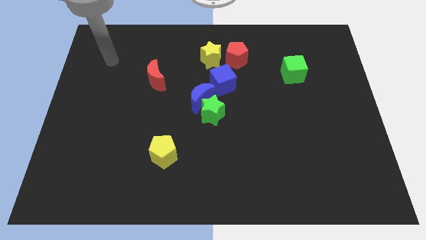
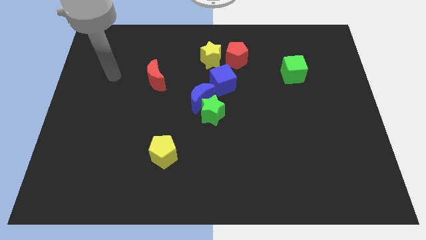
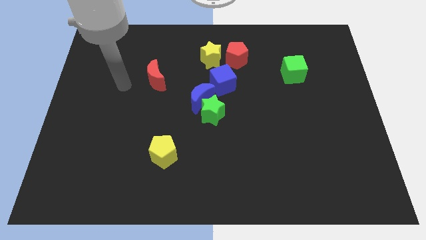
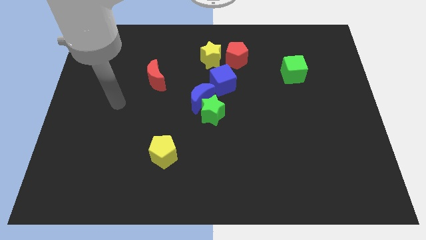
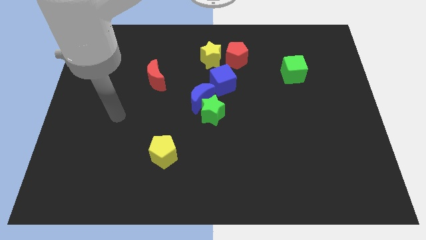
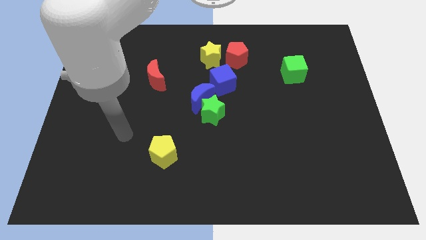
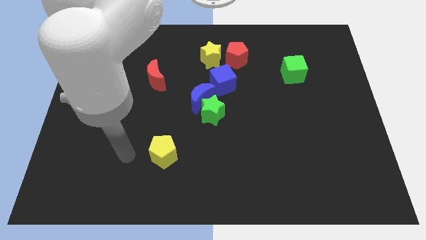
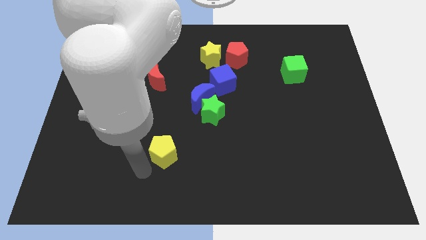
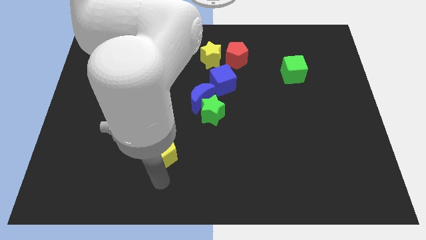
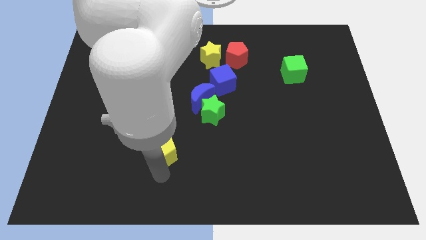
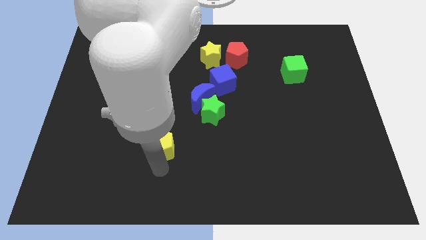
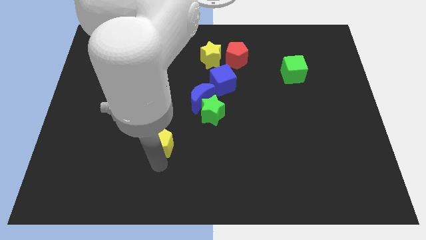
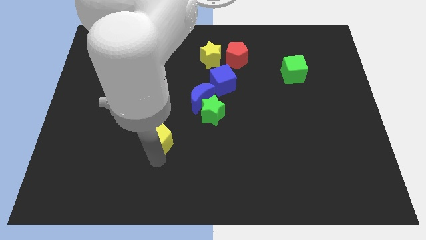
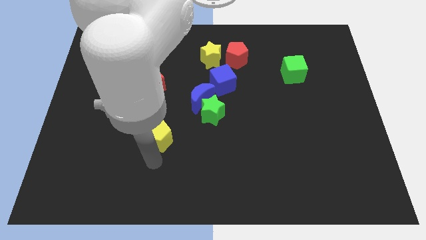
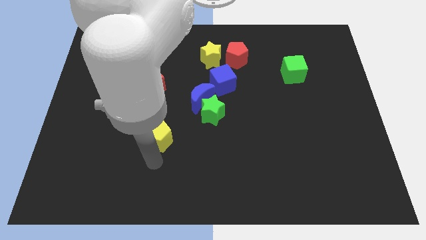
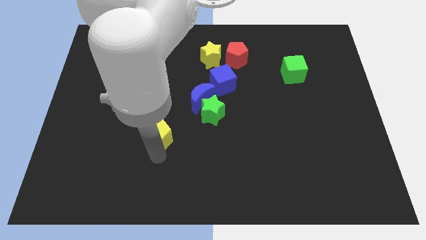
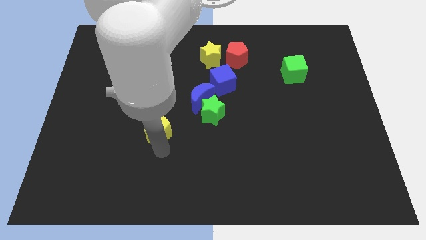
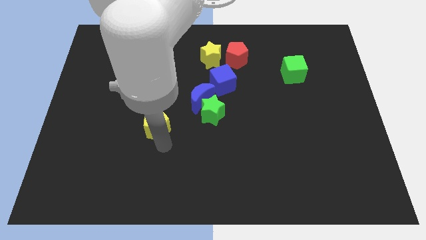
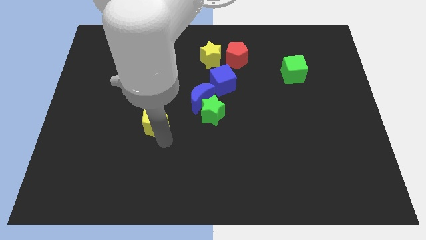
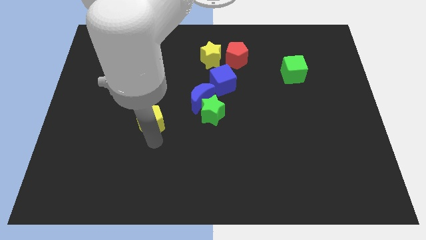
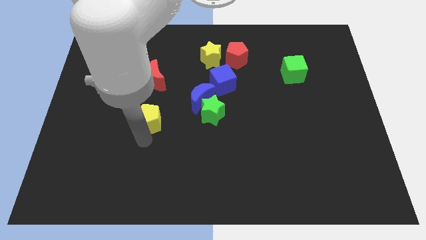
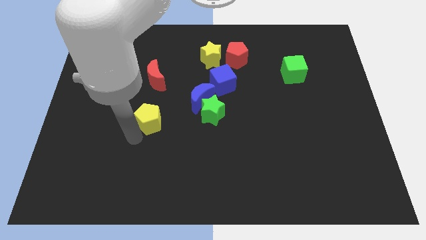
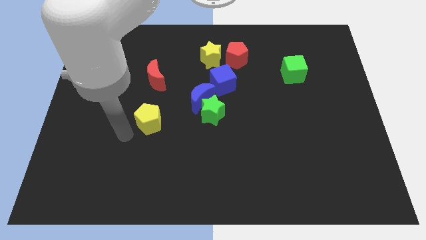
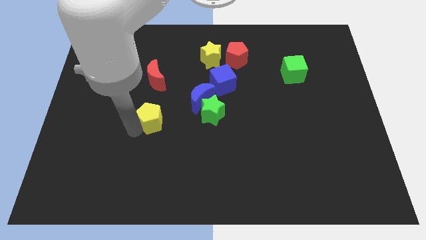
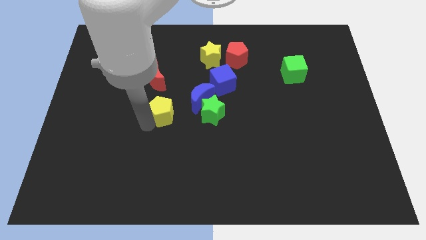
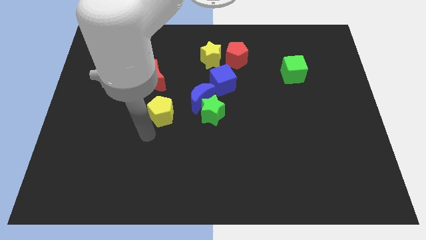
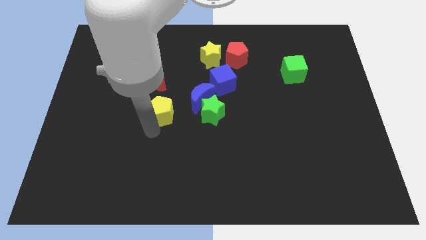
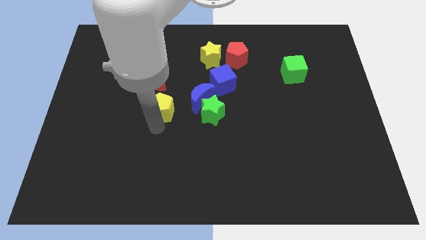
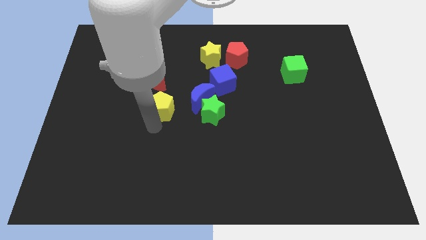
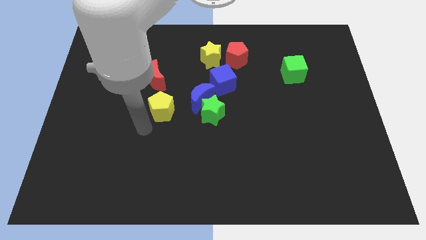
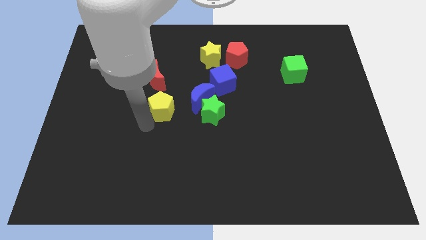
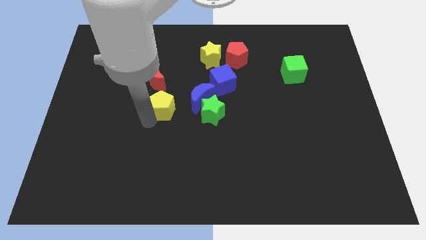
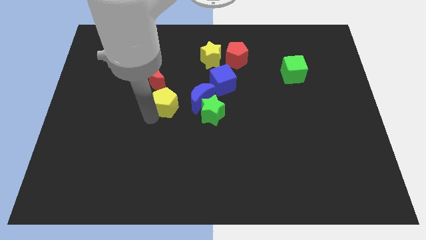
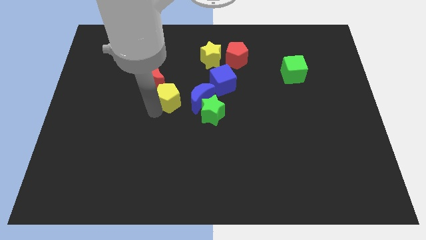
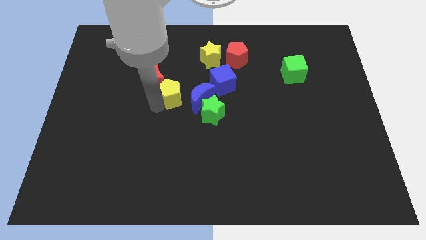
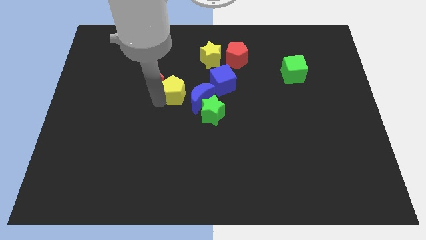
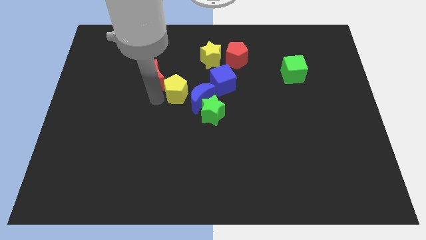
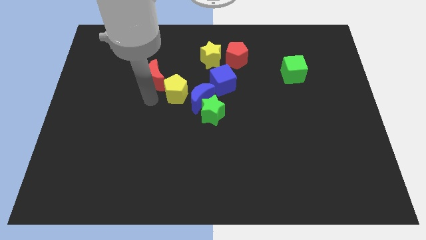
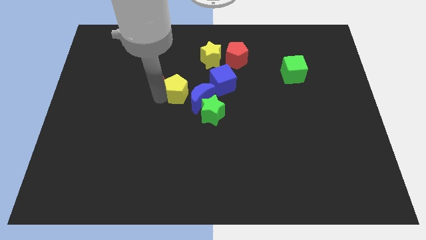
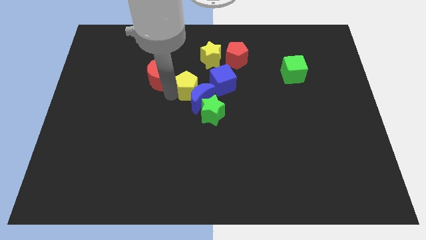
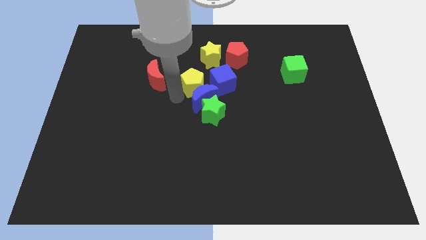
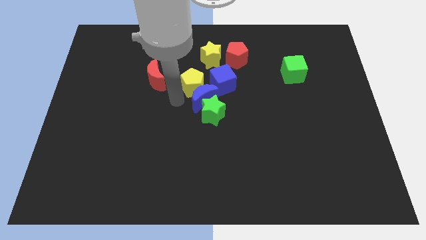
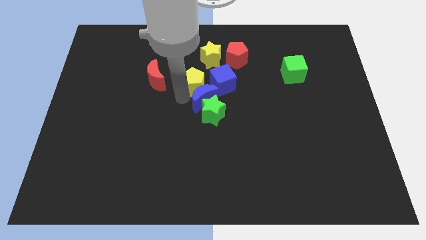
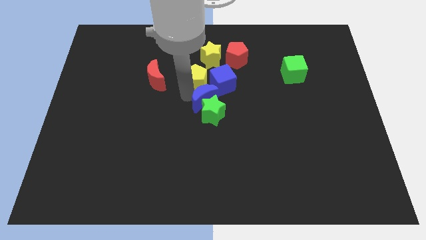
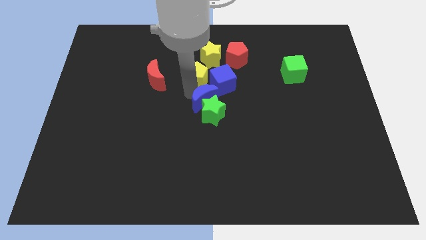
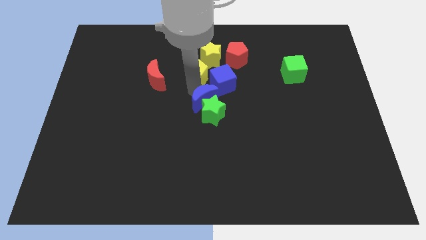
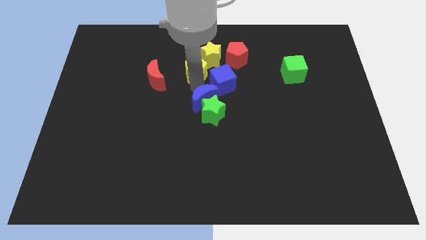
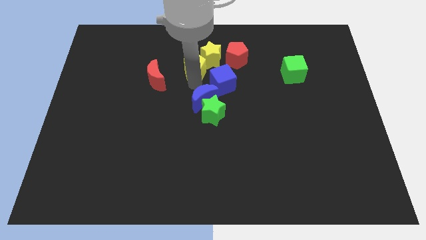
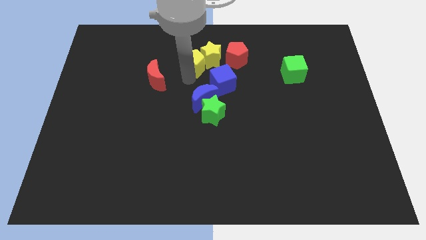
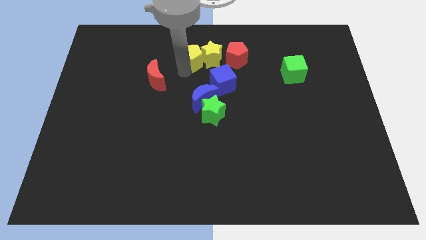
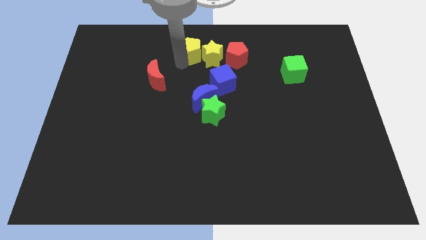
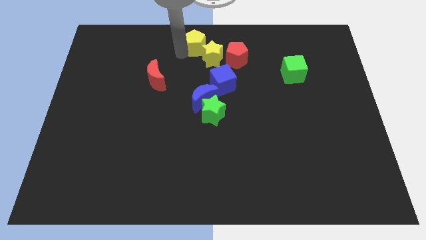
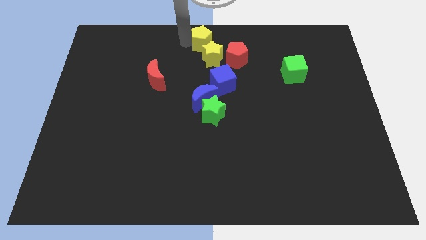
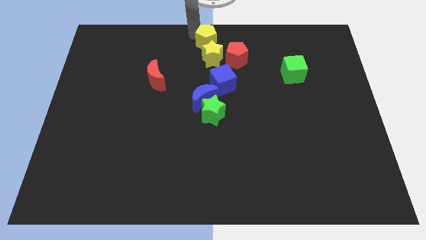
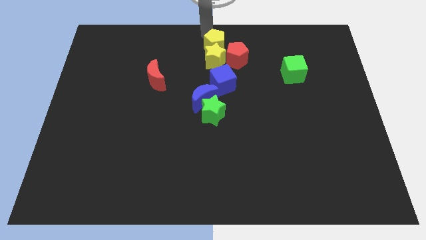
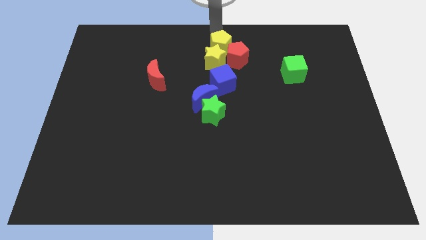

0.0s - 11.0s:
push the yellow pentagon close to the red pentagon

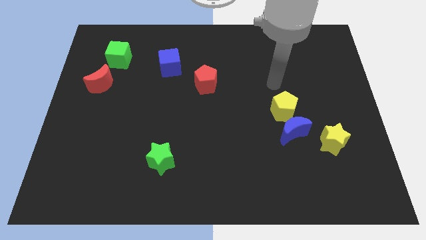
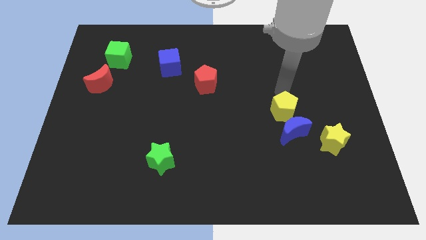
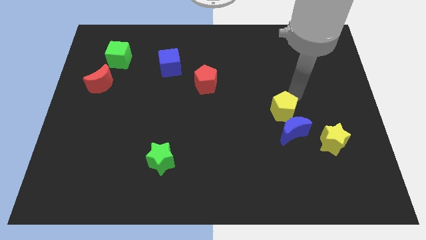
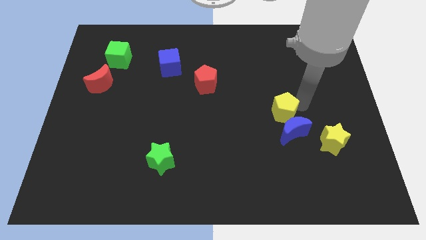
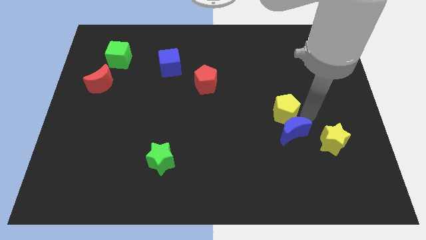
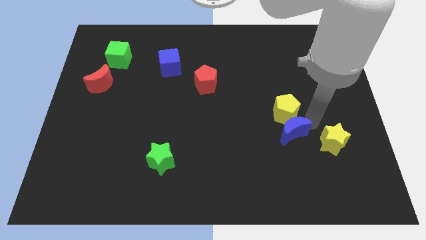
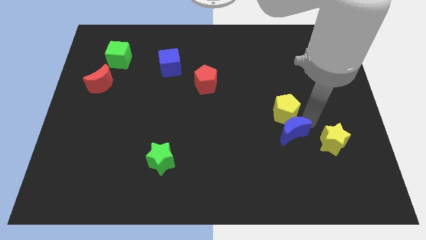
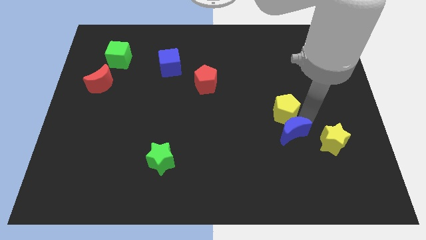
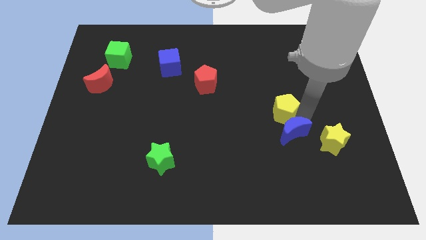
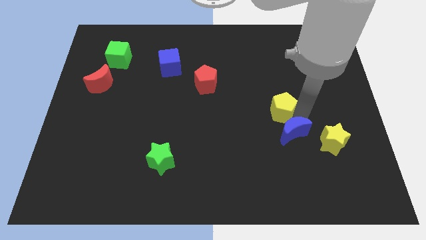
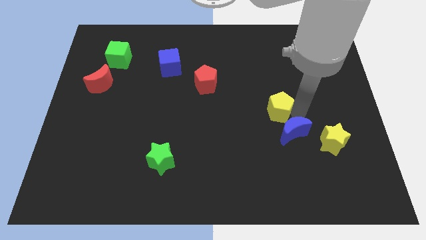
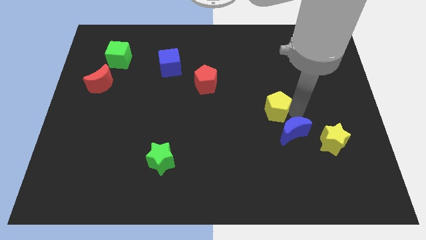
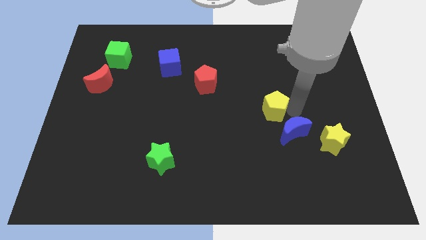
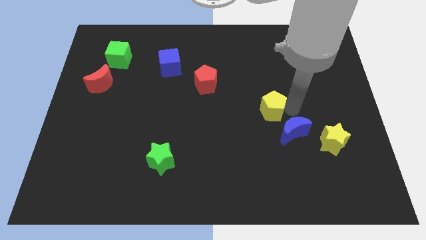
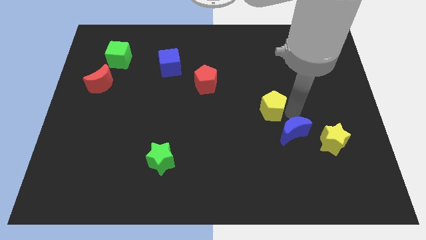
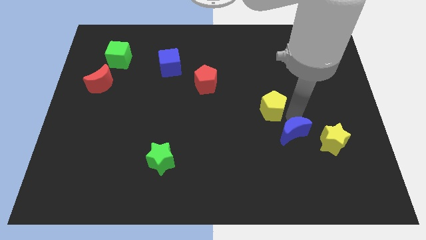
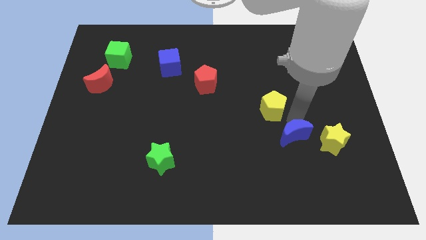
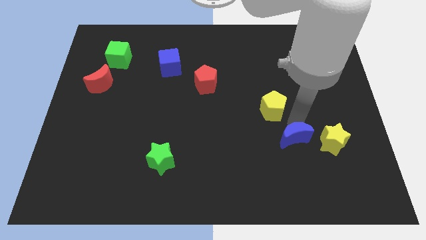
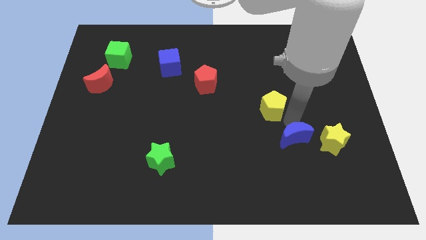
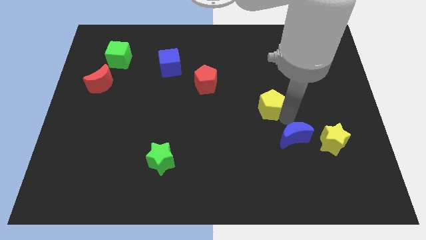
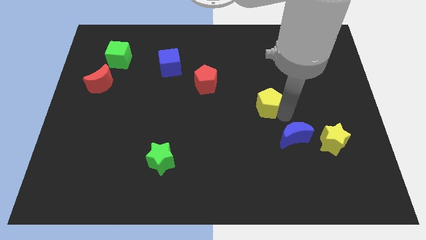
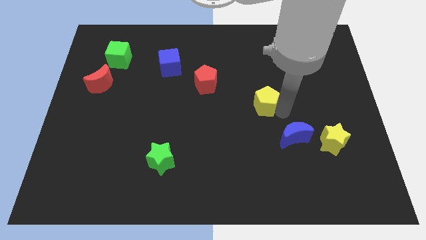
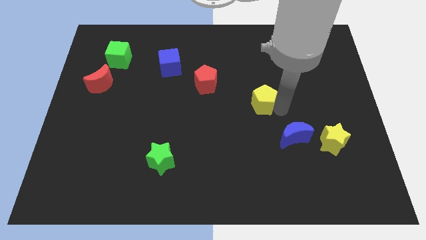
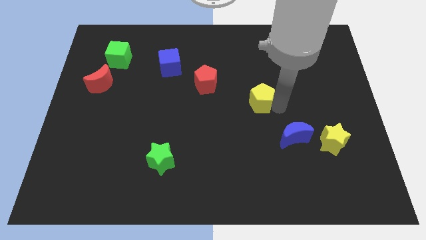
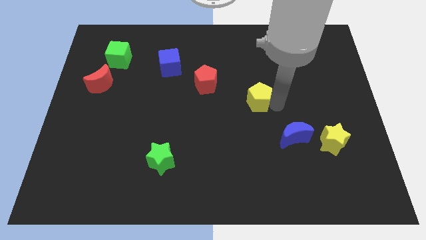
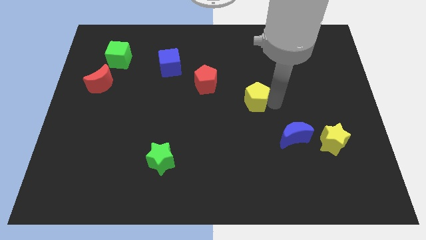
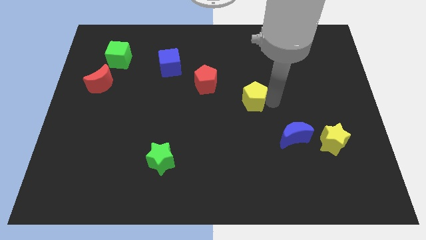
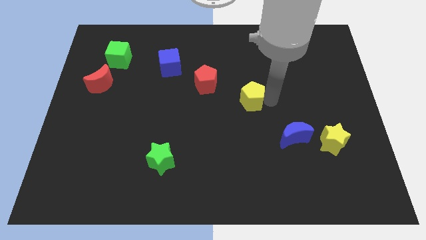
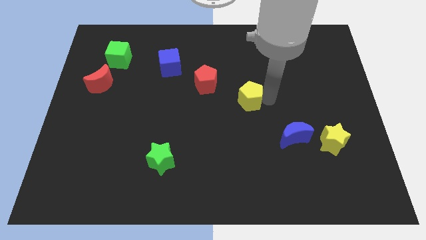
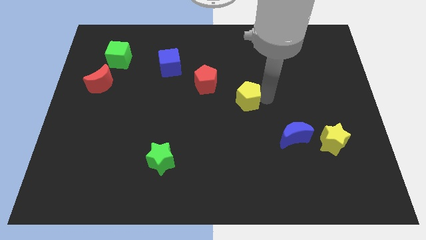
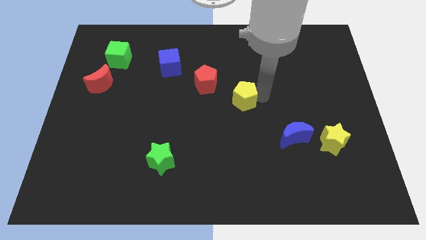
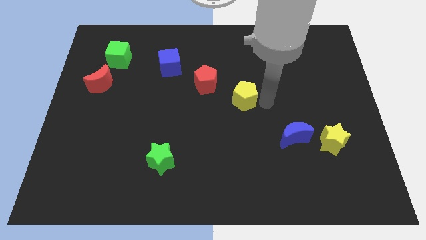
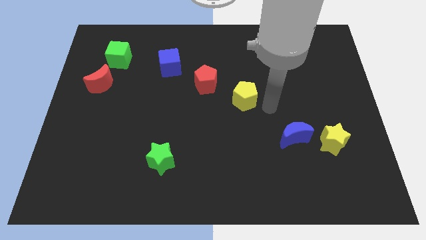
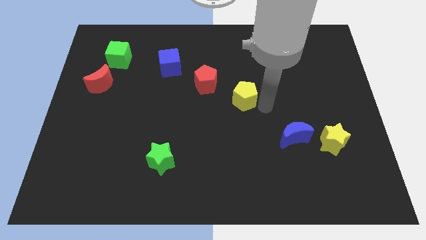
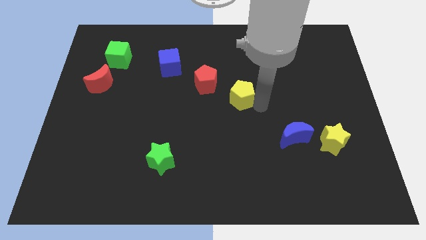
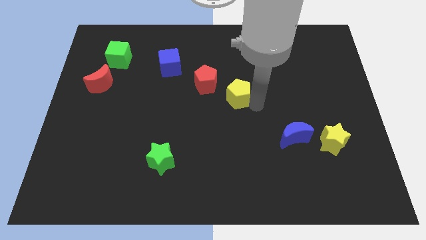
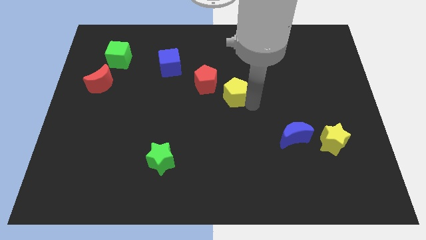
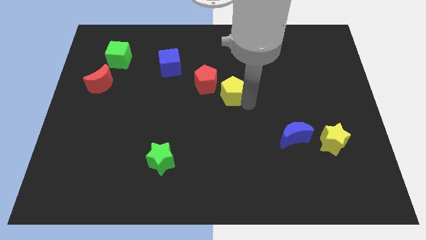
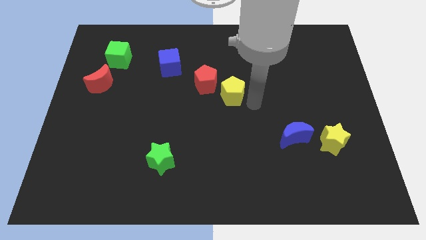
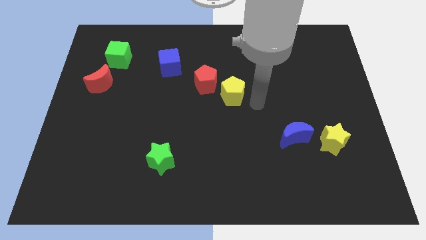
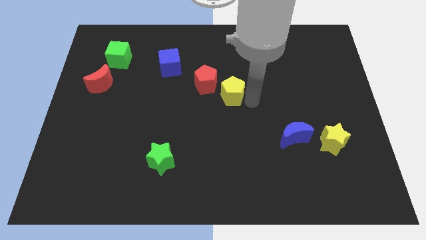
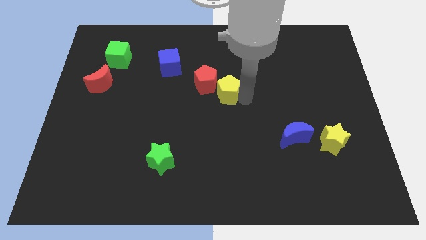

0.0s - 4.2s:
push the yellow pentagon to the red pentagon
